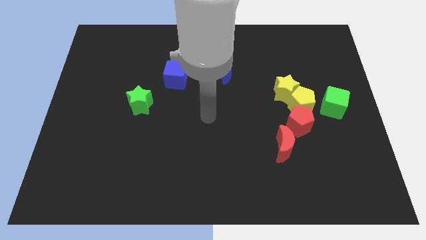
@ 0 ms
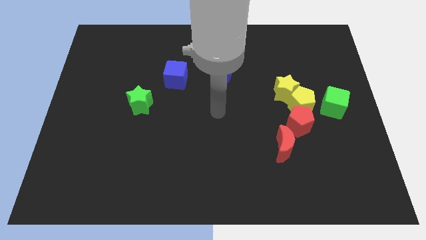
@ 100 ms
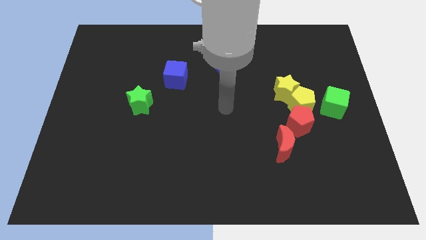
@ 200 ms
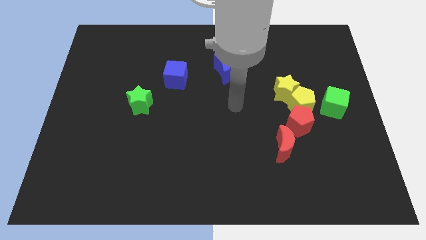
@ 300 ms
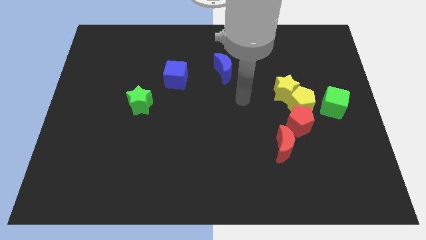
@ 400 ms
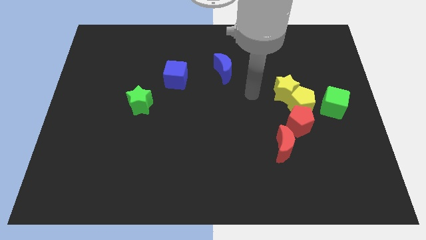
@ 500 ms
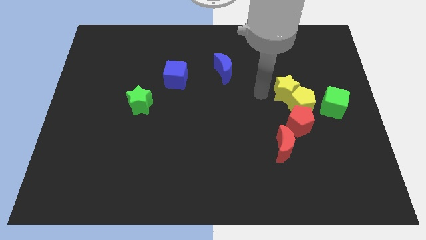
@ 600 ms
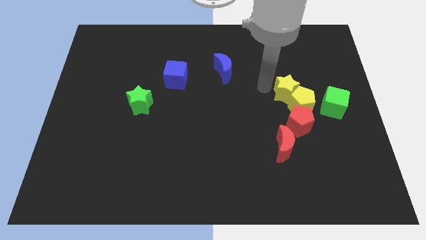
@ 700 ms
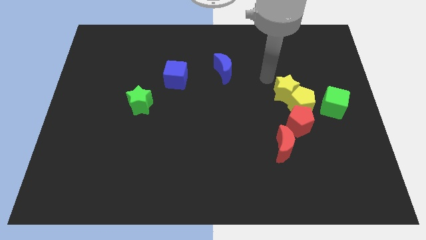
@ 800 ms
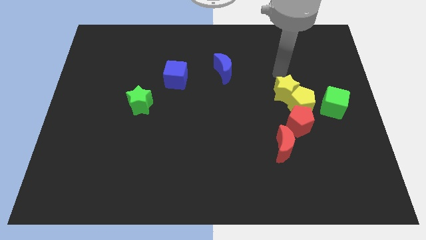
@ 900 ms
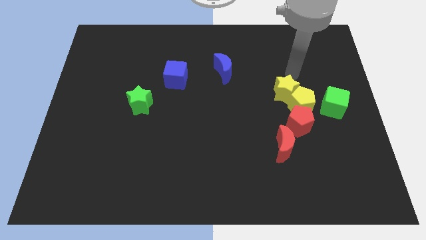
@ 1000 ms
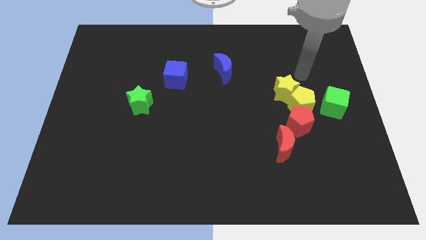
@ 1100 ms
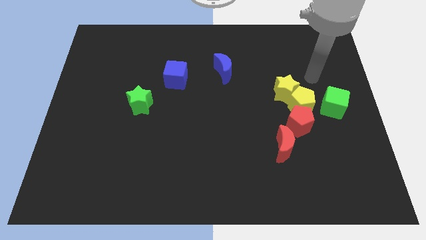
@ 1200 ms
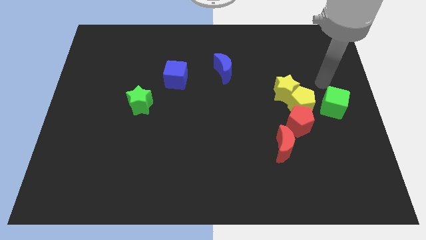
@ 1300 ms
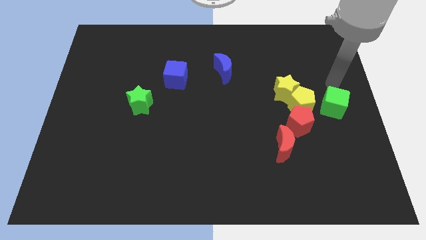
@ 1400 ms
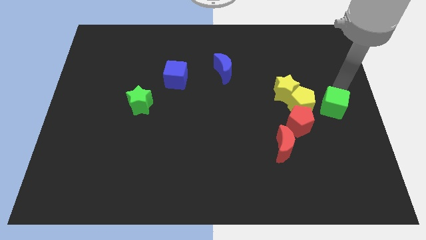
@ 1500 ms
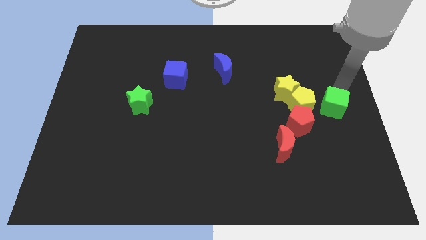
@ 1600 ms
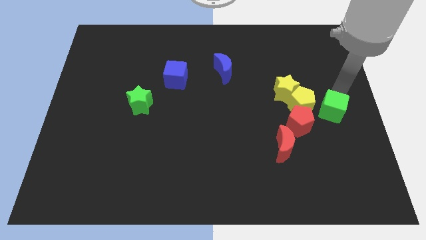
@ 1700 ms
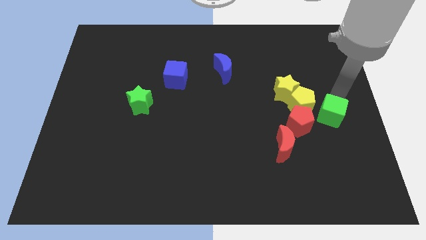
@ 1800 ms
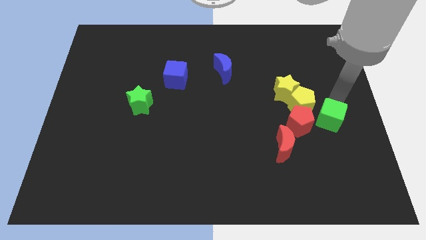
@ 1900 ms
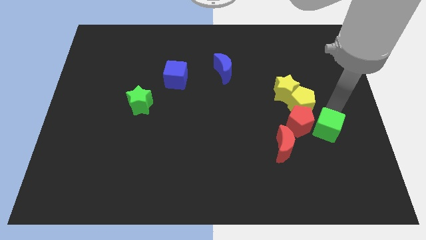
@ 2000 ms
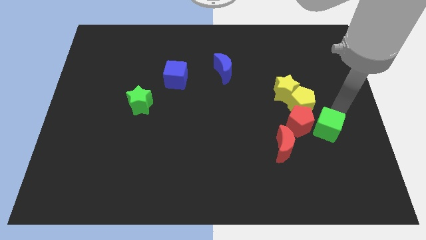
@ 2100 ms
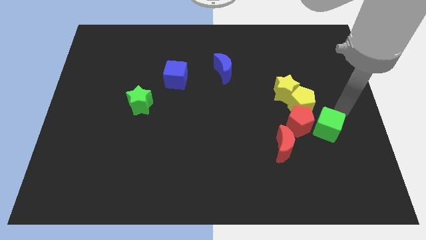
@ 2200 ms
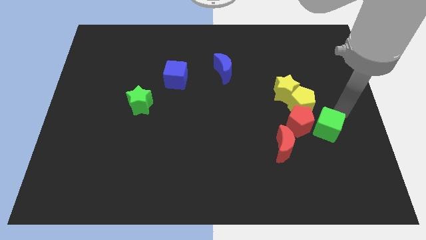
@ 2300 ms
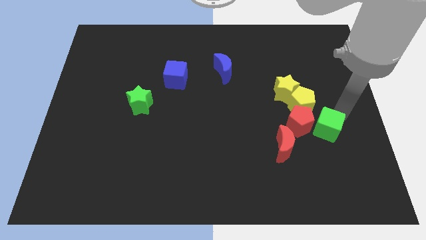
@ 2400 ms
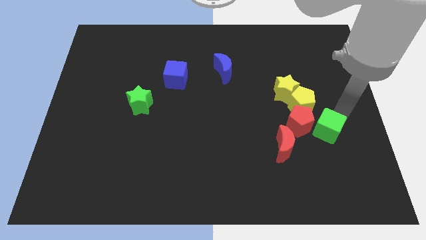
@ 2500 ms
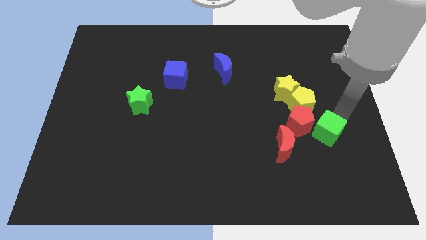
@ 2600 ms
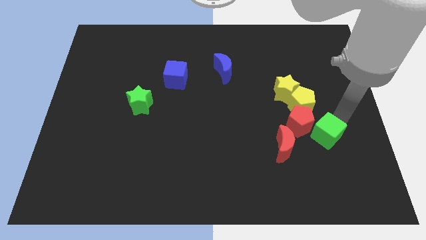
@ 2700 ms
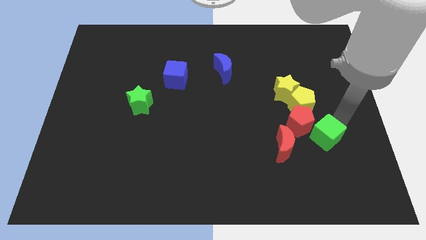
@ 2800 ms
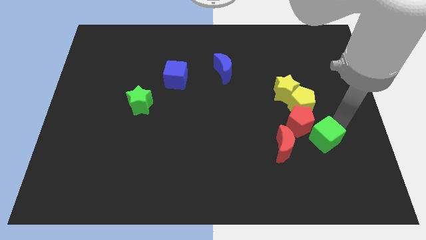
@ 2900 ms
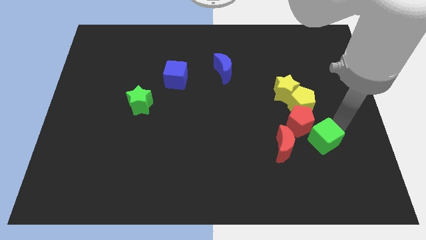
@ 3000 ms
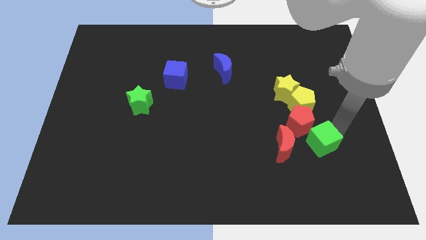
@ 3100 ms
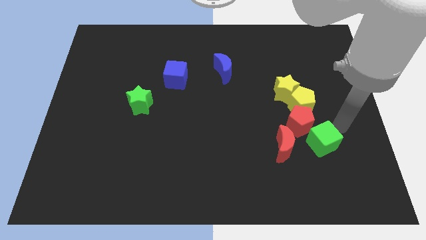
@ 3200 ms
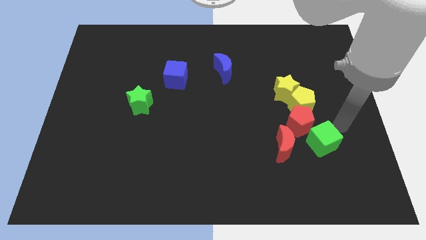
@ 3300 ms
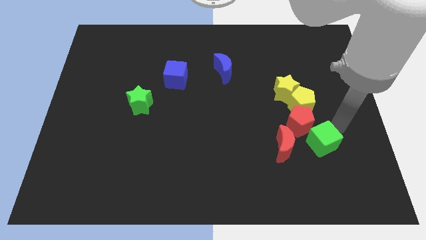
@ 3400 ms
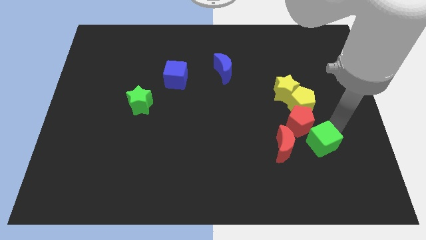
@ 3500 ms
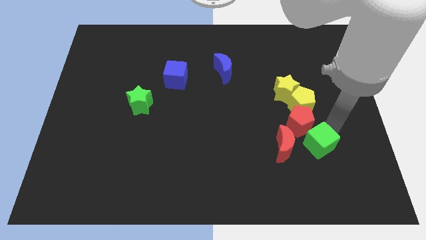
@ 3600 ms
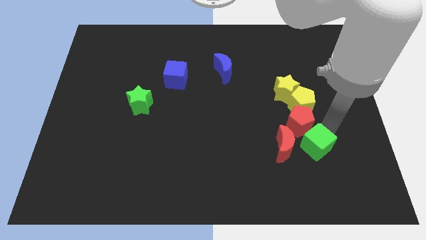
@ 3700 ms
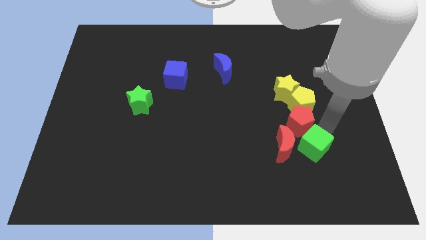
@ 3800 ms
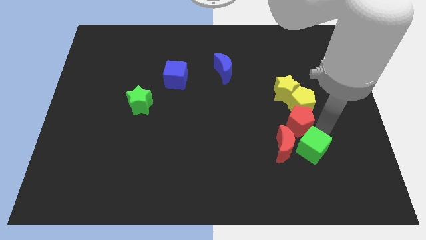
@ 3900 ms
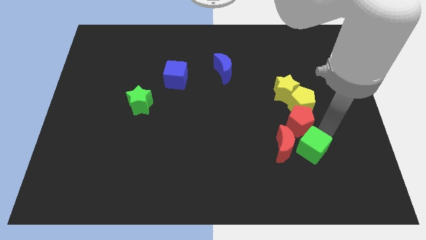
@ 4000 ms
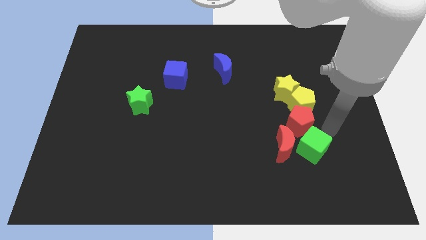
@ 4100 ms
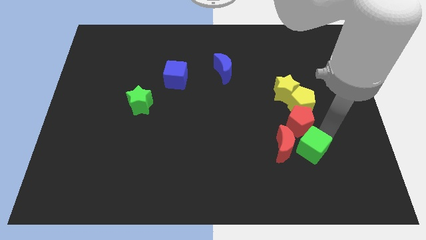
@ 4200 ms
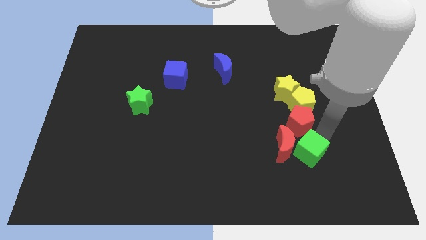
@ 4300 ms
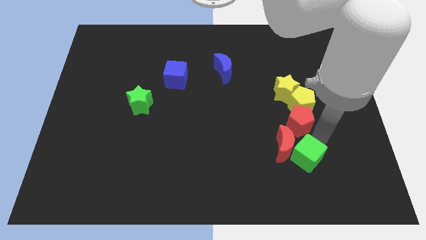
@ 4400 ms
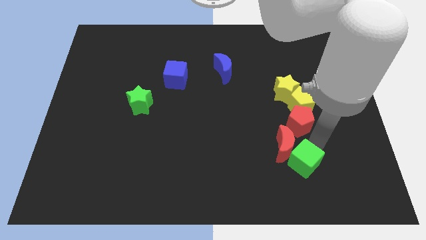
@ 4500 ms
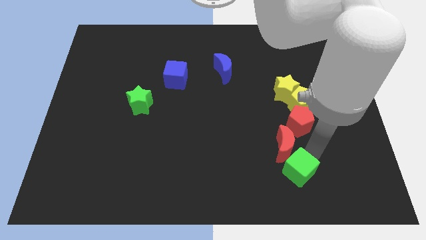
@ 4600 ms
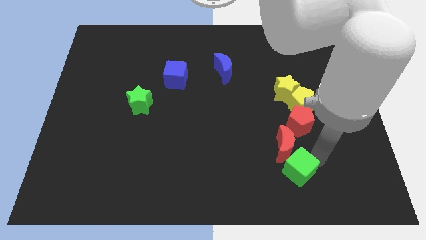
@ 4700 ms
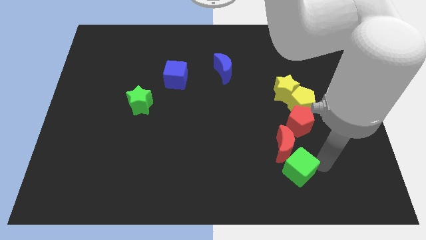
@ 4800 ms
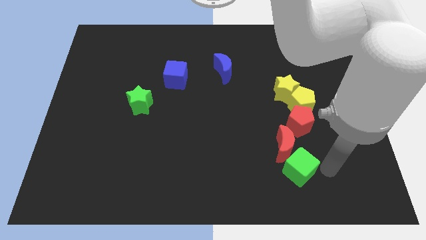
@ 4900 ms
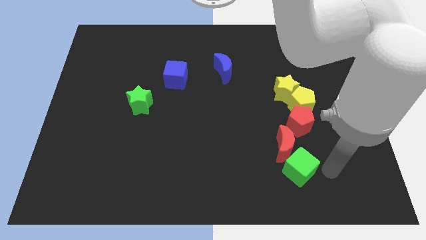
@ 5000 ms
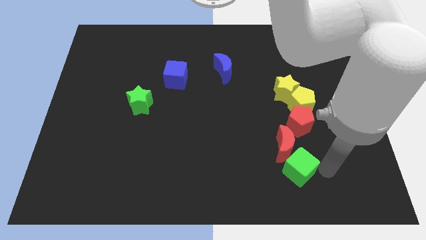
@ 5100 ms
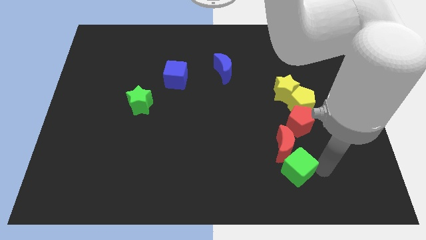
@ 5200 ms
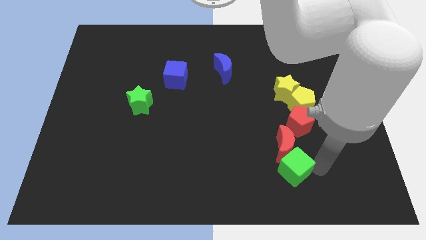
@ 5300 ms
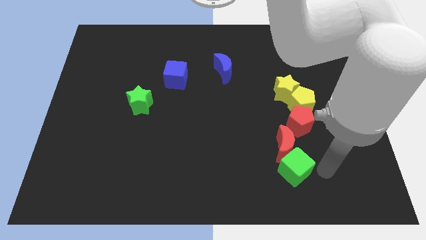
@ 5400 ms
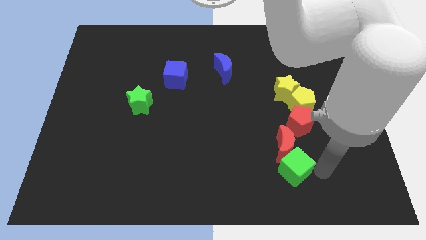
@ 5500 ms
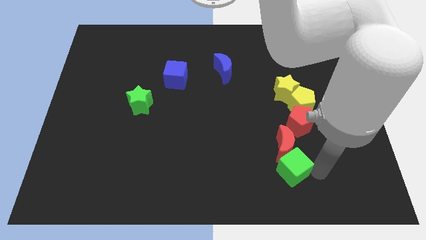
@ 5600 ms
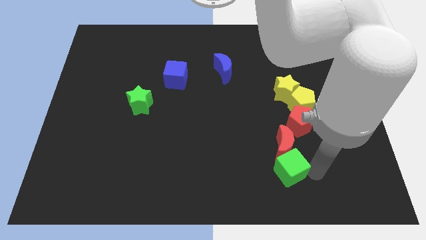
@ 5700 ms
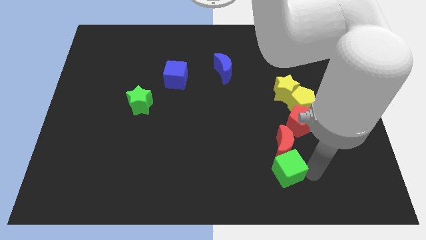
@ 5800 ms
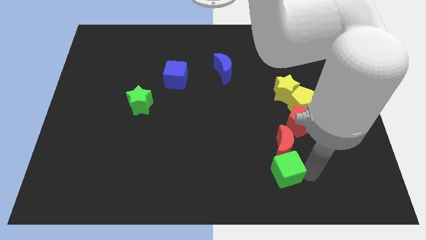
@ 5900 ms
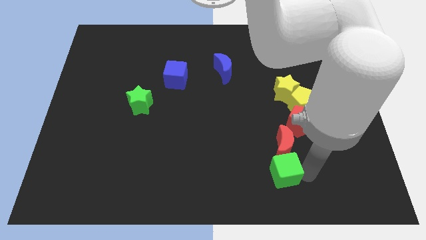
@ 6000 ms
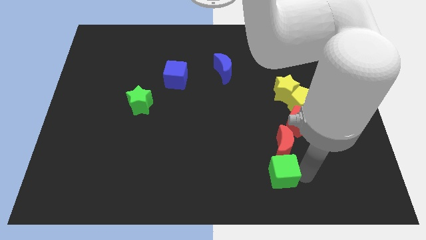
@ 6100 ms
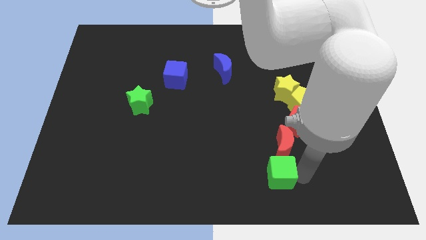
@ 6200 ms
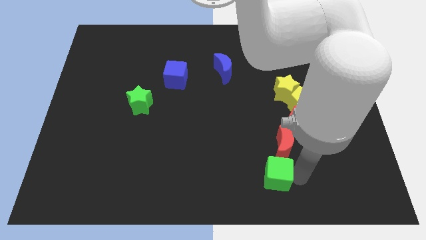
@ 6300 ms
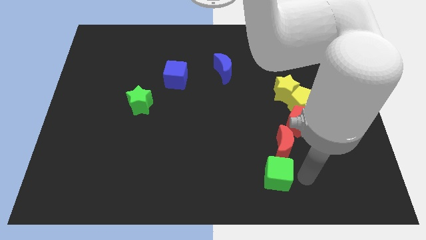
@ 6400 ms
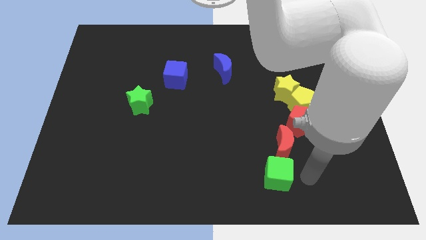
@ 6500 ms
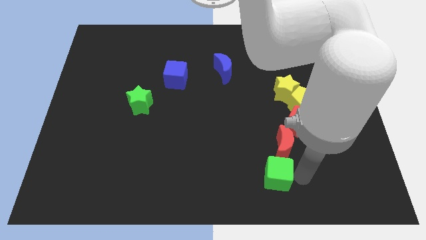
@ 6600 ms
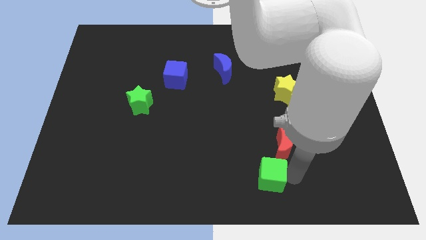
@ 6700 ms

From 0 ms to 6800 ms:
put the green cube to the bottom side
